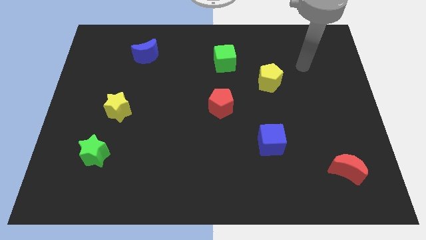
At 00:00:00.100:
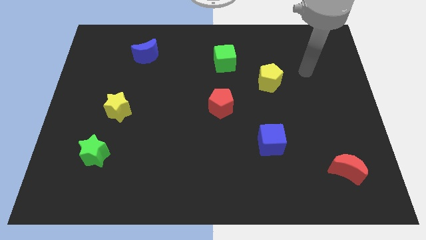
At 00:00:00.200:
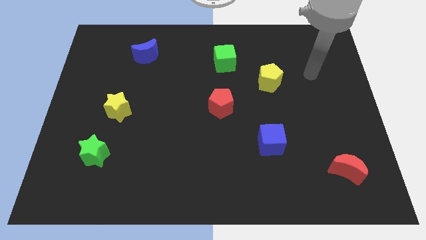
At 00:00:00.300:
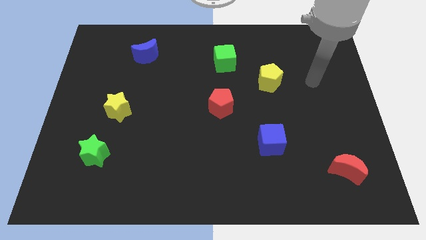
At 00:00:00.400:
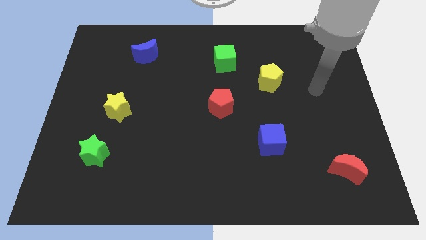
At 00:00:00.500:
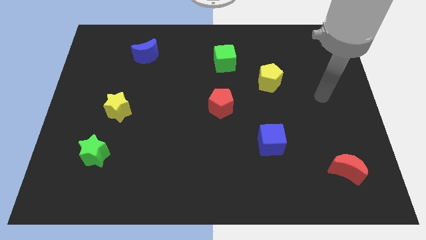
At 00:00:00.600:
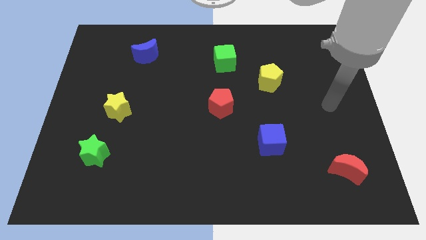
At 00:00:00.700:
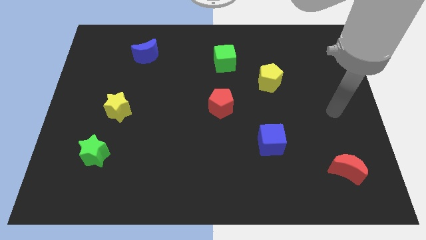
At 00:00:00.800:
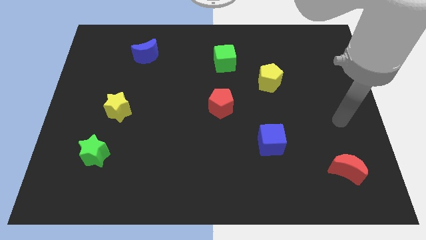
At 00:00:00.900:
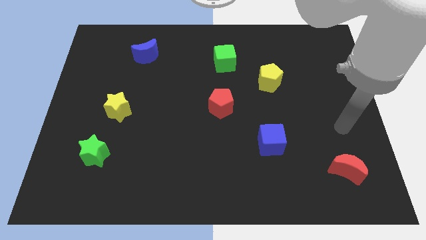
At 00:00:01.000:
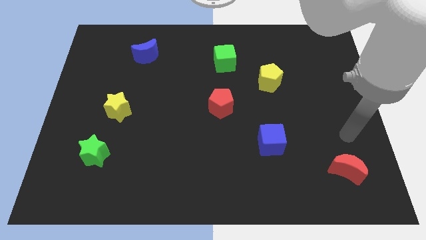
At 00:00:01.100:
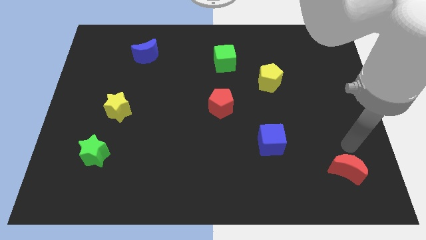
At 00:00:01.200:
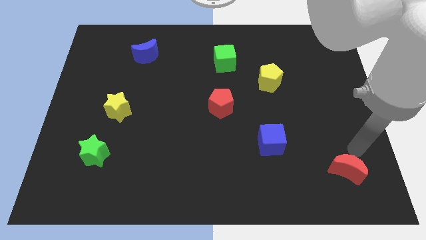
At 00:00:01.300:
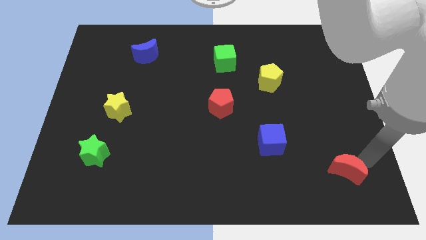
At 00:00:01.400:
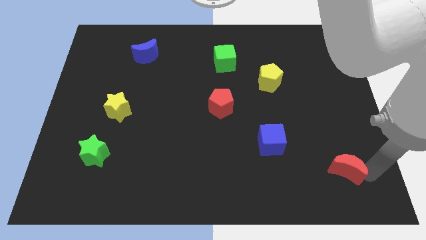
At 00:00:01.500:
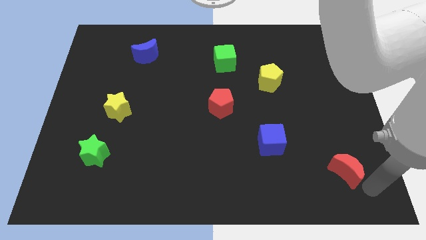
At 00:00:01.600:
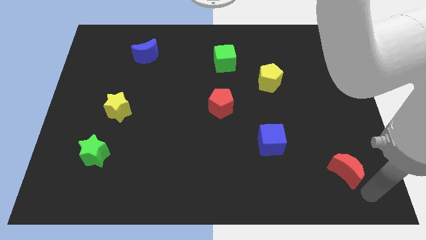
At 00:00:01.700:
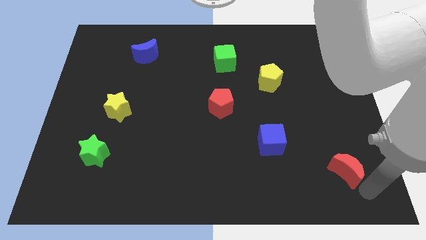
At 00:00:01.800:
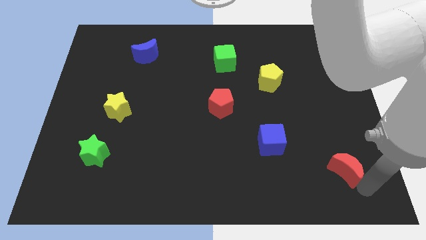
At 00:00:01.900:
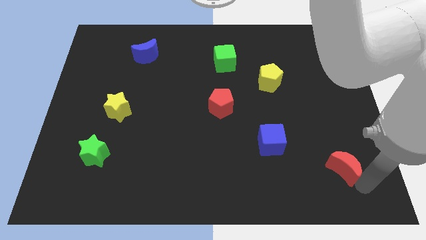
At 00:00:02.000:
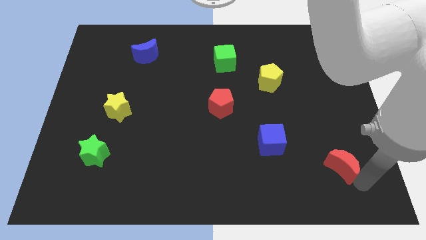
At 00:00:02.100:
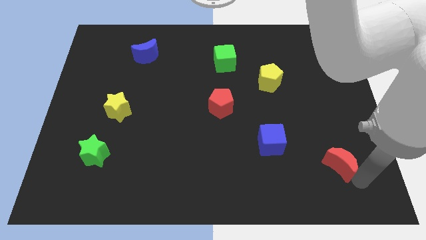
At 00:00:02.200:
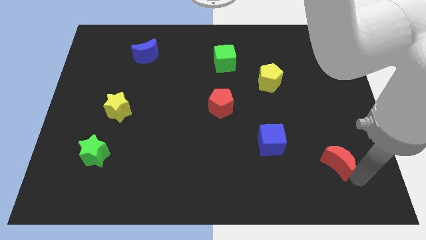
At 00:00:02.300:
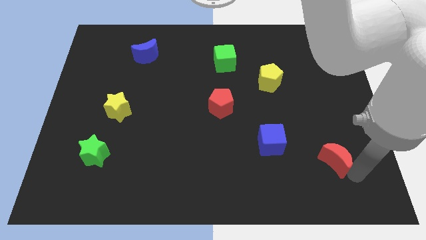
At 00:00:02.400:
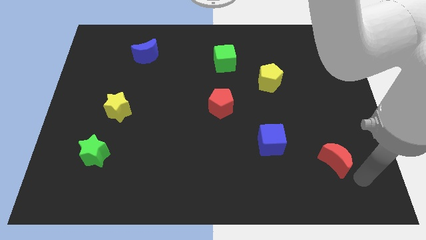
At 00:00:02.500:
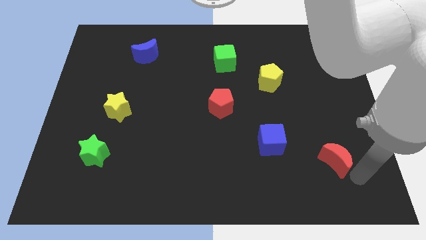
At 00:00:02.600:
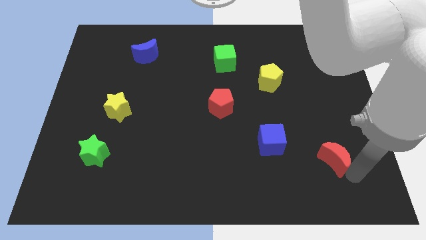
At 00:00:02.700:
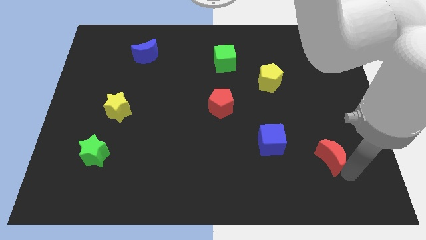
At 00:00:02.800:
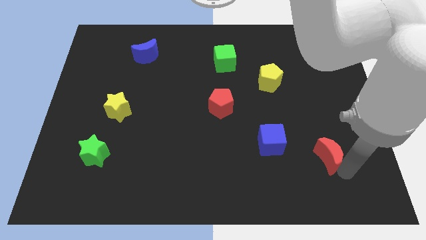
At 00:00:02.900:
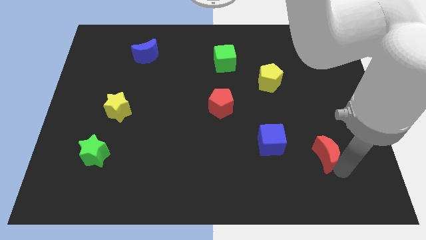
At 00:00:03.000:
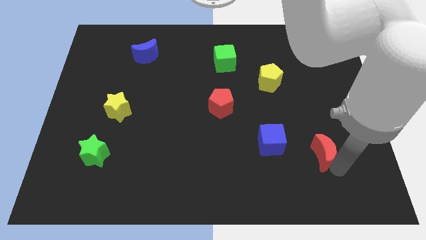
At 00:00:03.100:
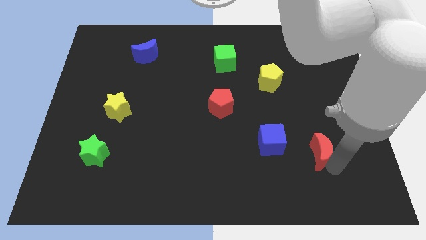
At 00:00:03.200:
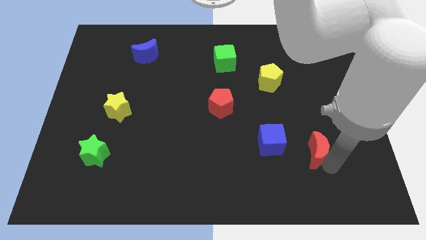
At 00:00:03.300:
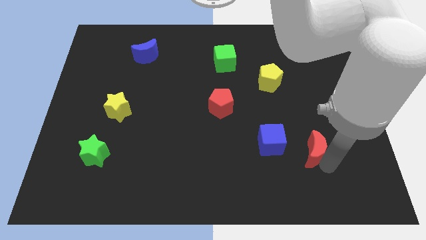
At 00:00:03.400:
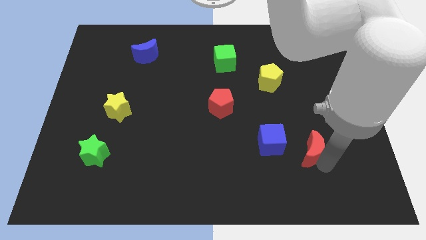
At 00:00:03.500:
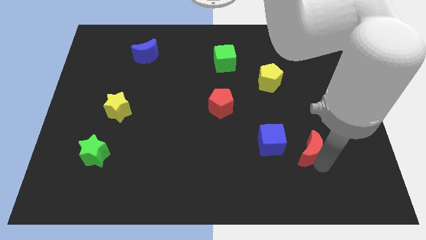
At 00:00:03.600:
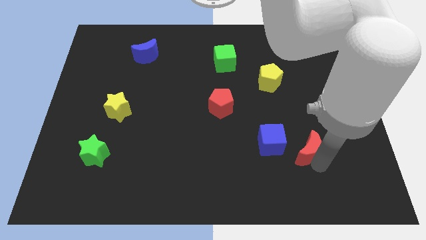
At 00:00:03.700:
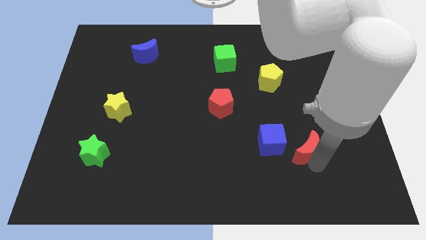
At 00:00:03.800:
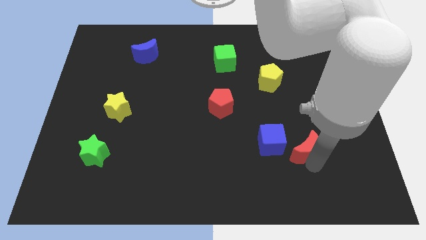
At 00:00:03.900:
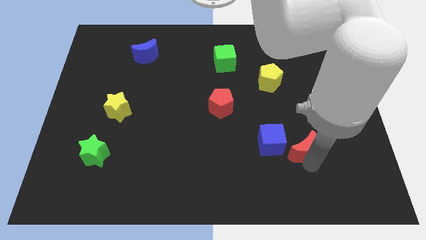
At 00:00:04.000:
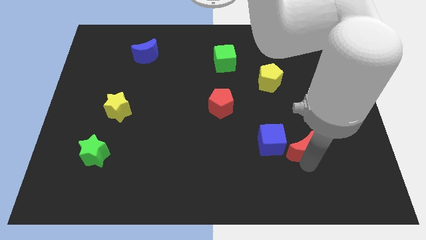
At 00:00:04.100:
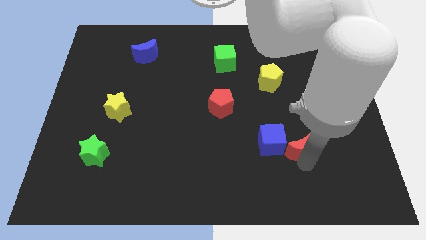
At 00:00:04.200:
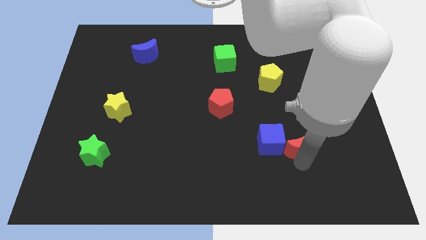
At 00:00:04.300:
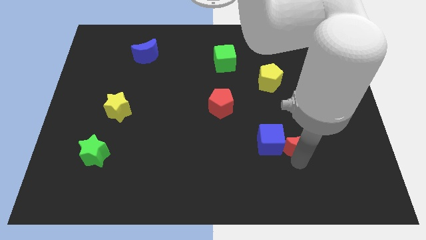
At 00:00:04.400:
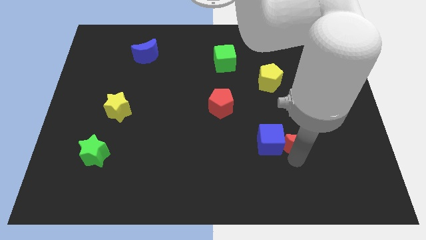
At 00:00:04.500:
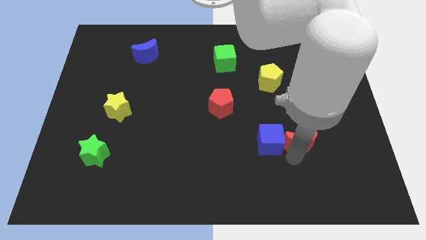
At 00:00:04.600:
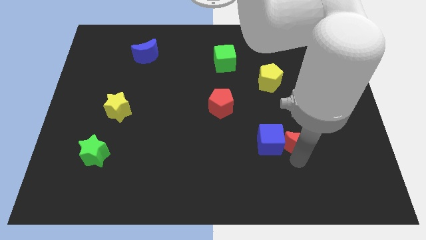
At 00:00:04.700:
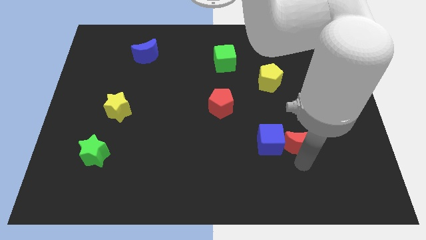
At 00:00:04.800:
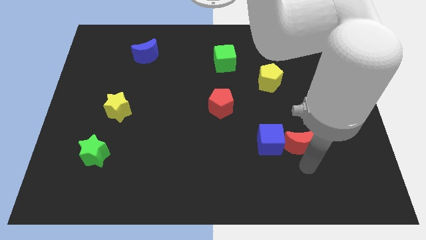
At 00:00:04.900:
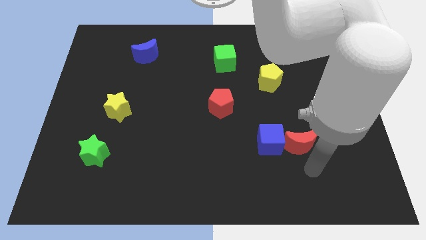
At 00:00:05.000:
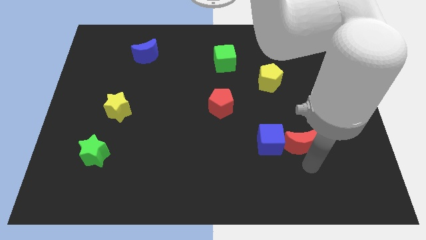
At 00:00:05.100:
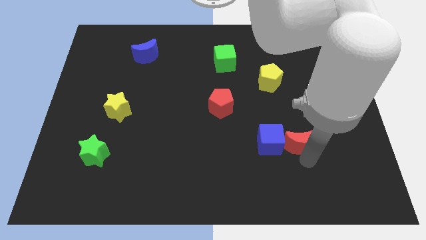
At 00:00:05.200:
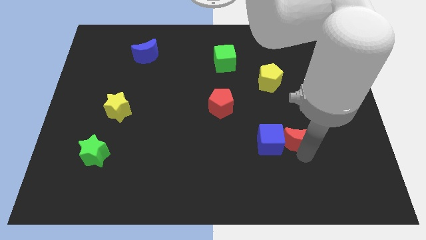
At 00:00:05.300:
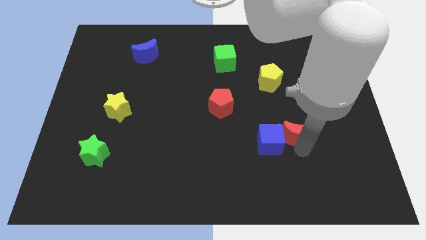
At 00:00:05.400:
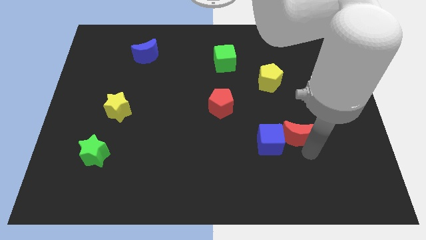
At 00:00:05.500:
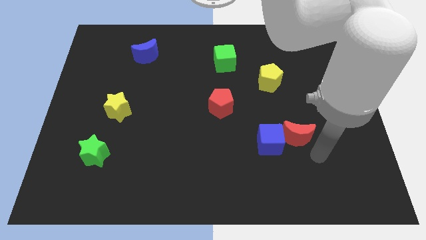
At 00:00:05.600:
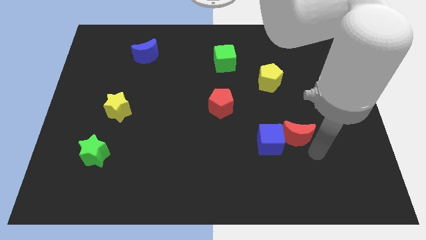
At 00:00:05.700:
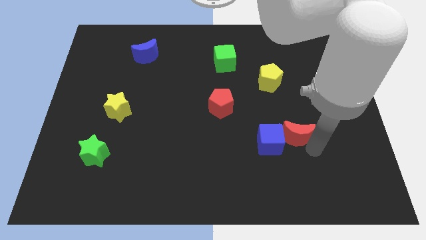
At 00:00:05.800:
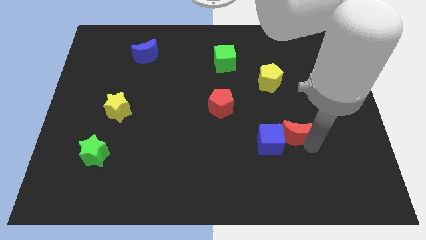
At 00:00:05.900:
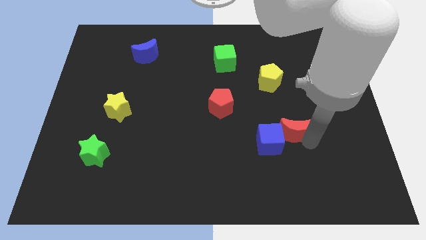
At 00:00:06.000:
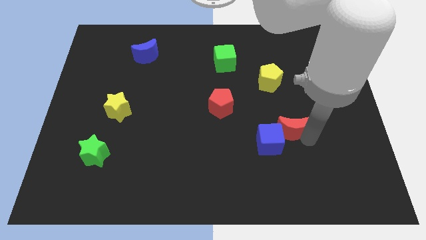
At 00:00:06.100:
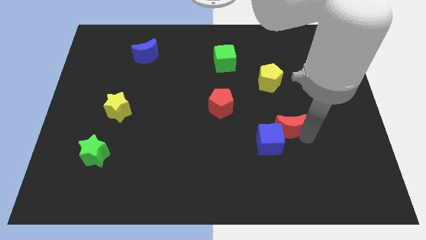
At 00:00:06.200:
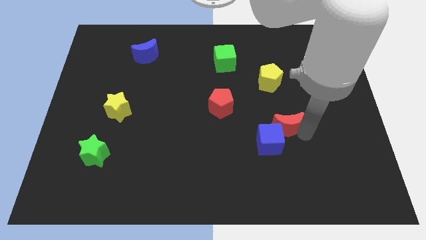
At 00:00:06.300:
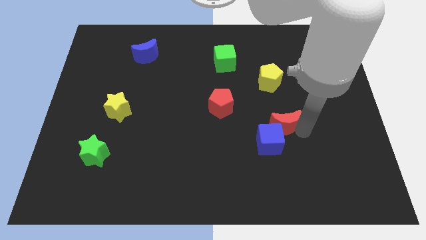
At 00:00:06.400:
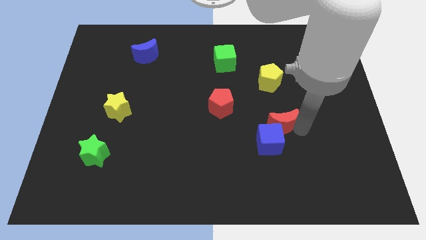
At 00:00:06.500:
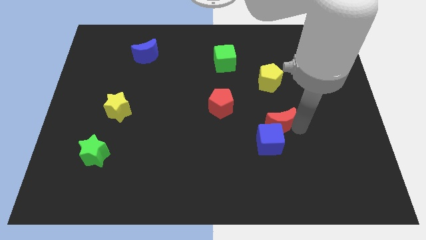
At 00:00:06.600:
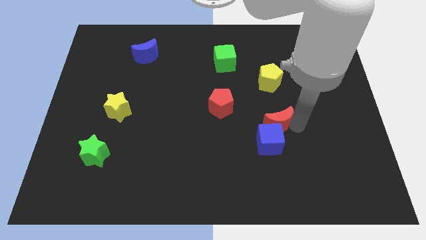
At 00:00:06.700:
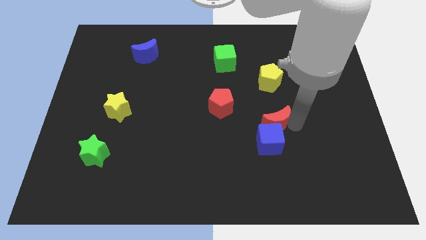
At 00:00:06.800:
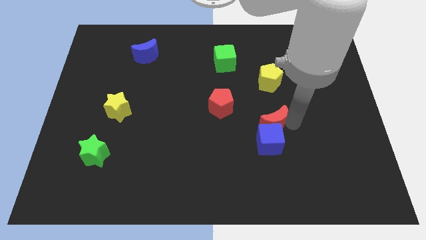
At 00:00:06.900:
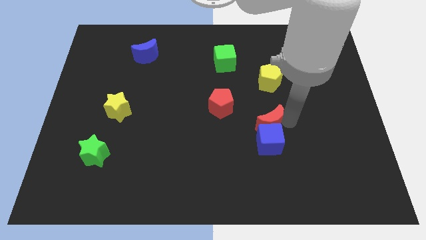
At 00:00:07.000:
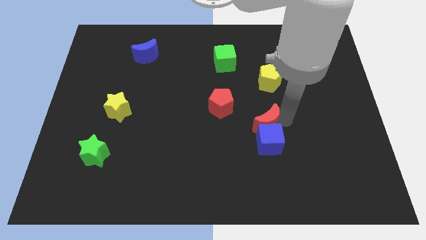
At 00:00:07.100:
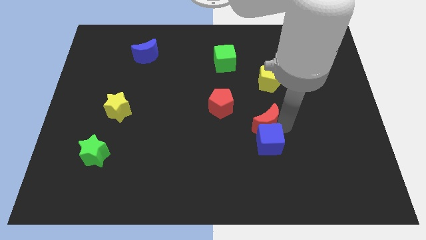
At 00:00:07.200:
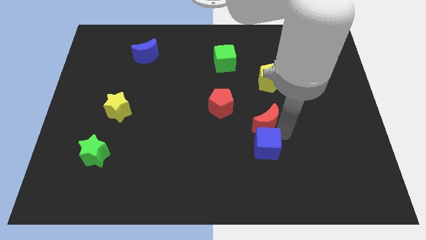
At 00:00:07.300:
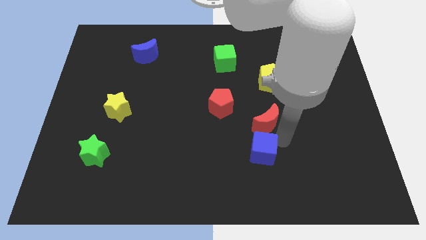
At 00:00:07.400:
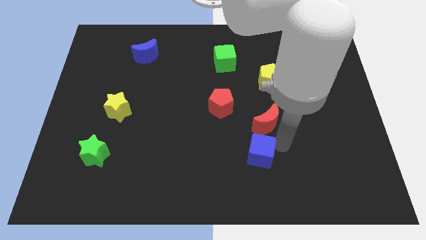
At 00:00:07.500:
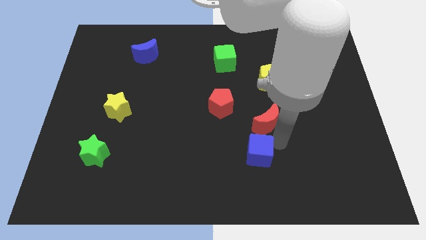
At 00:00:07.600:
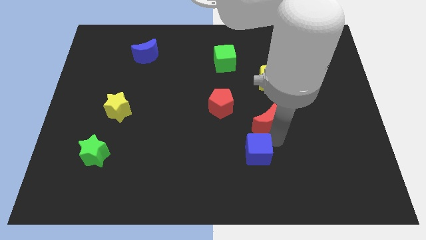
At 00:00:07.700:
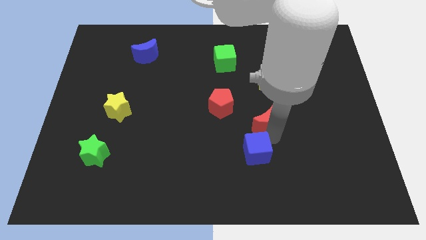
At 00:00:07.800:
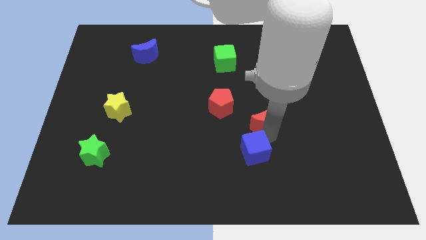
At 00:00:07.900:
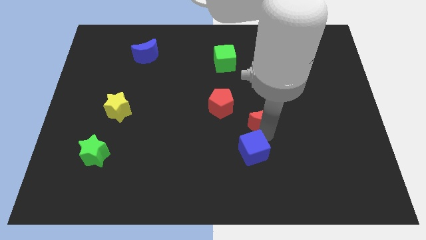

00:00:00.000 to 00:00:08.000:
slide the red moon up and then left
